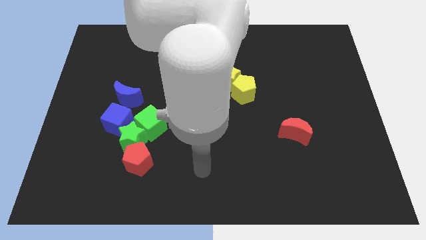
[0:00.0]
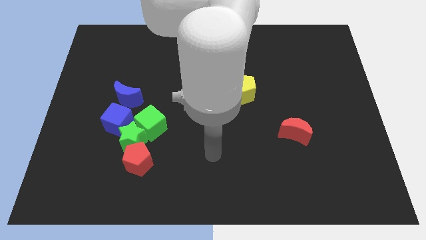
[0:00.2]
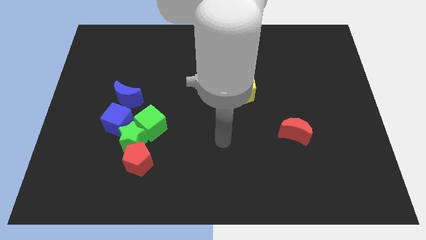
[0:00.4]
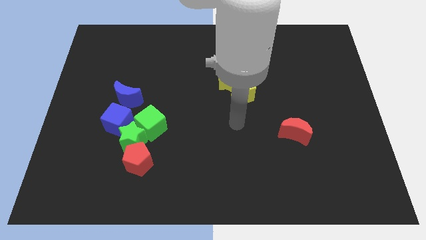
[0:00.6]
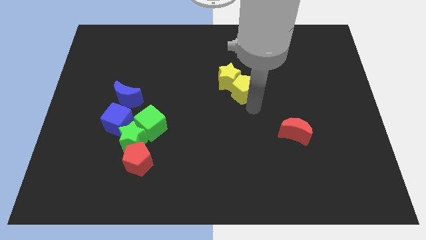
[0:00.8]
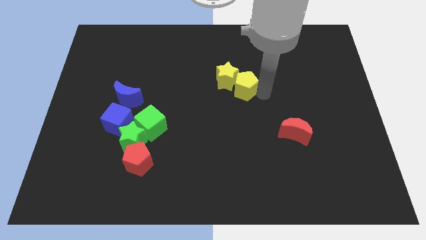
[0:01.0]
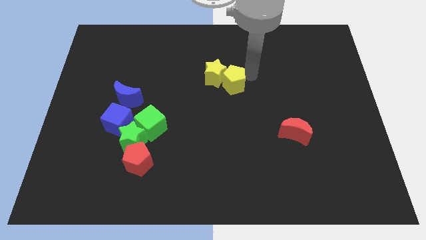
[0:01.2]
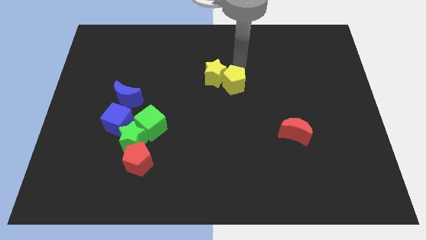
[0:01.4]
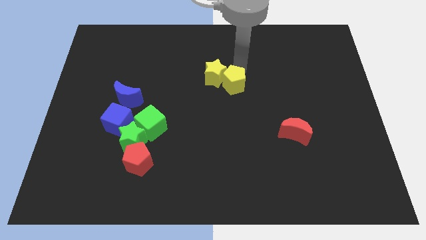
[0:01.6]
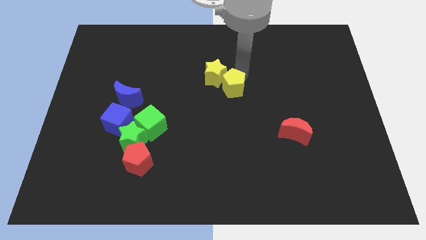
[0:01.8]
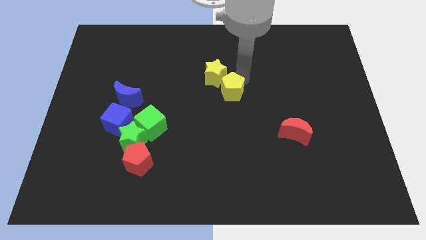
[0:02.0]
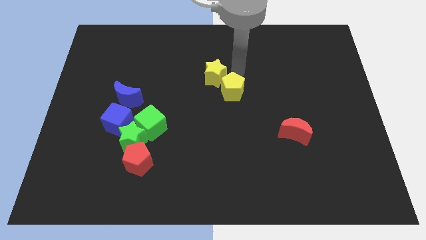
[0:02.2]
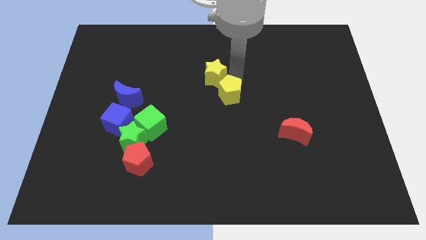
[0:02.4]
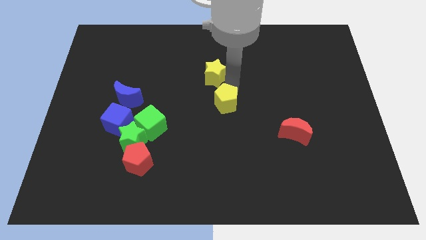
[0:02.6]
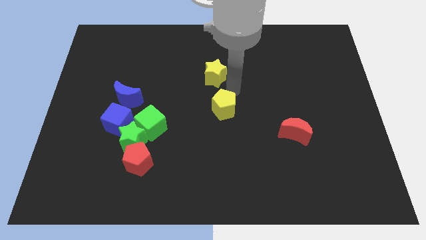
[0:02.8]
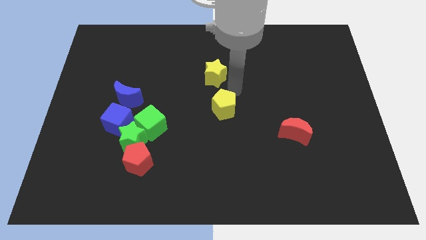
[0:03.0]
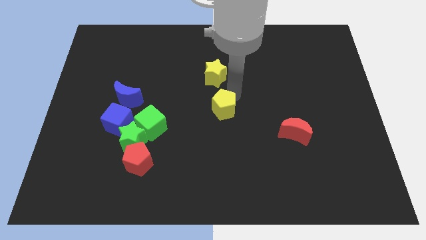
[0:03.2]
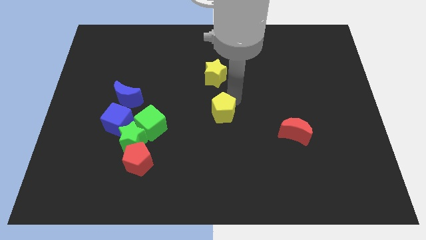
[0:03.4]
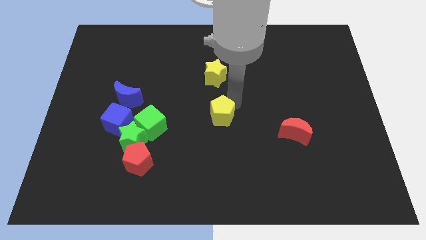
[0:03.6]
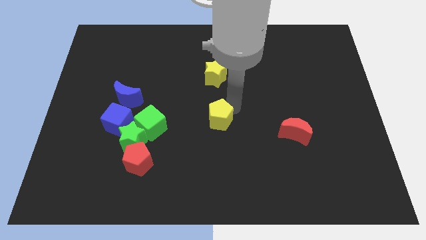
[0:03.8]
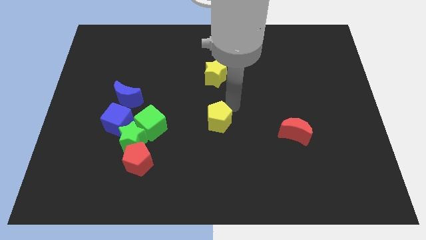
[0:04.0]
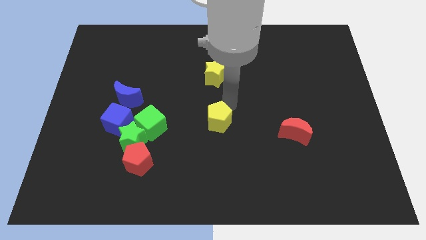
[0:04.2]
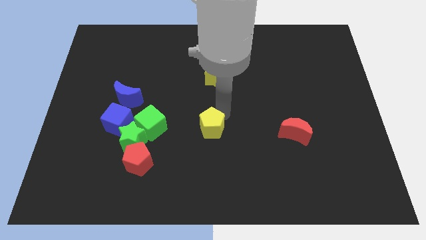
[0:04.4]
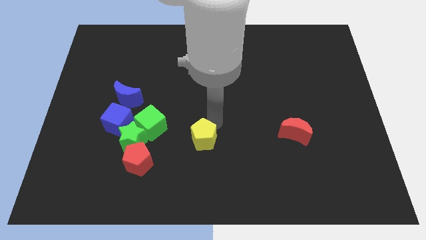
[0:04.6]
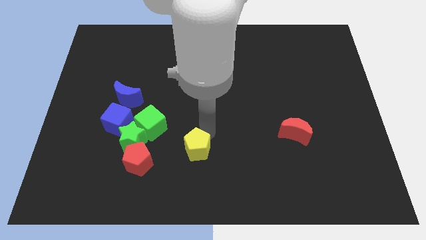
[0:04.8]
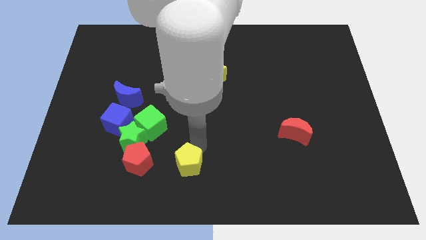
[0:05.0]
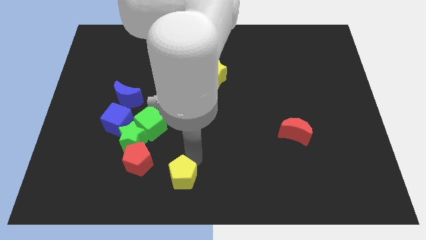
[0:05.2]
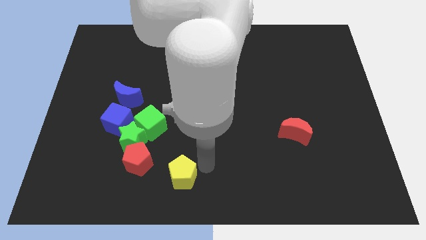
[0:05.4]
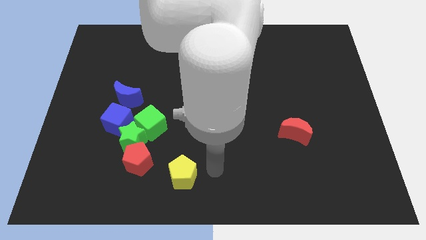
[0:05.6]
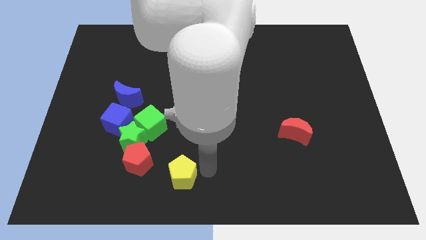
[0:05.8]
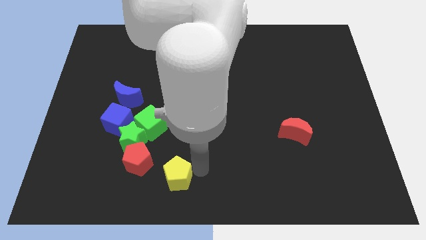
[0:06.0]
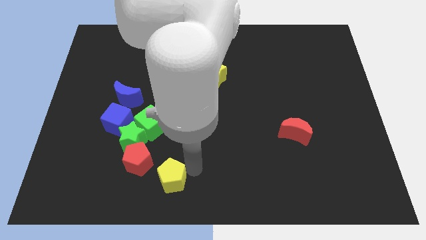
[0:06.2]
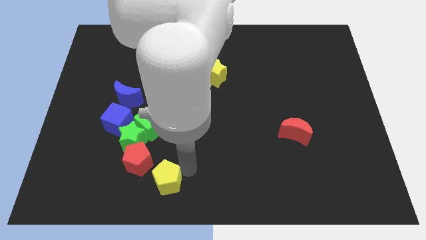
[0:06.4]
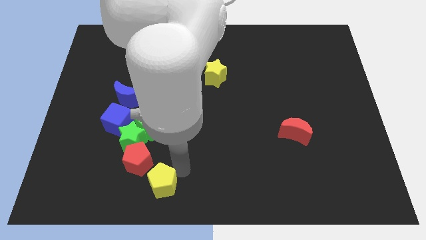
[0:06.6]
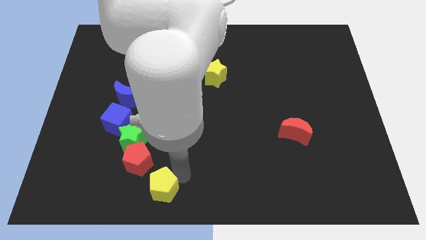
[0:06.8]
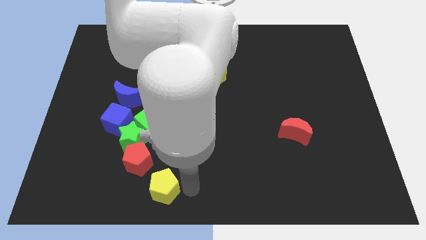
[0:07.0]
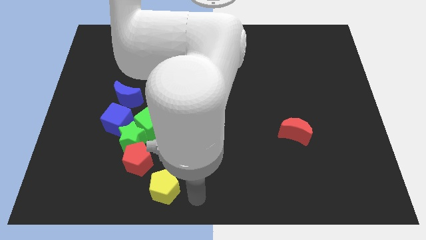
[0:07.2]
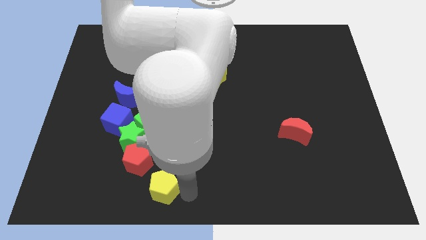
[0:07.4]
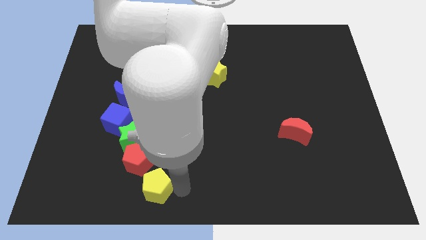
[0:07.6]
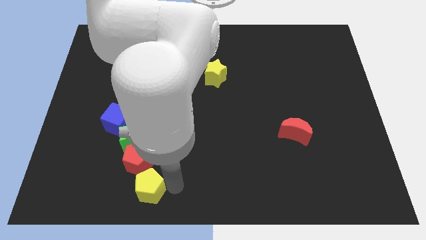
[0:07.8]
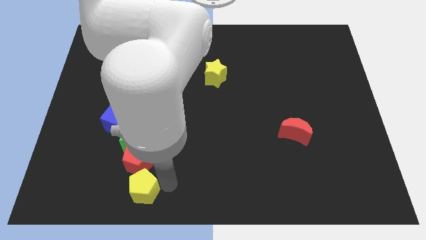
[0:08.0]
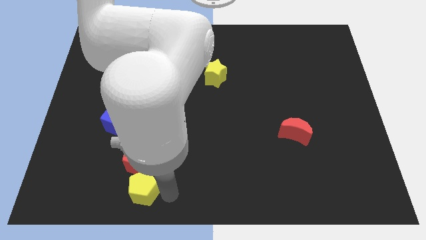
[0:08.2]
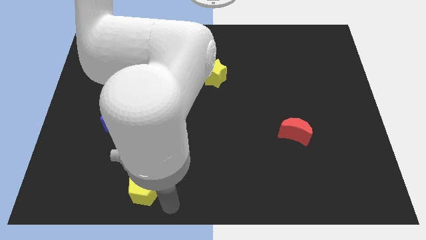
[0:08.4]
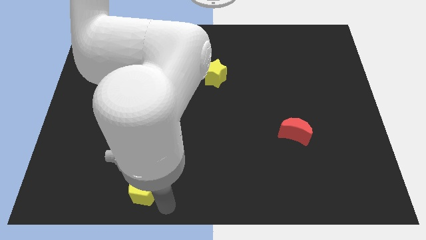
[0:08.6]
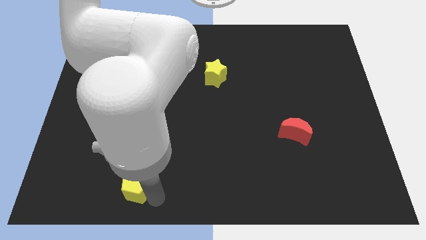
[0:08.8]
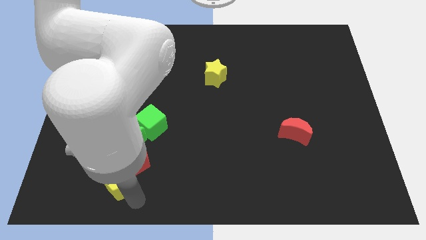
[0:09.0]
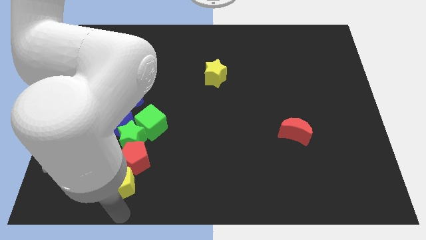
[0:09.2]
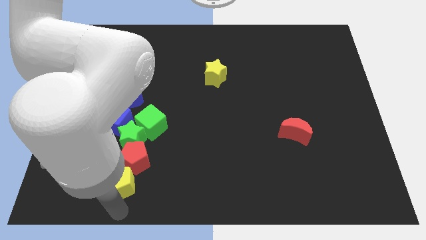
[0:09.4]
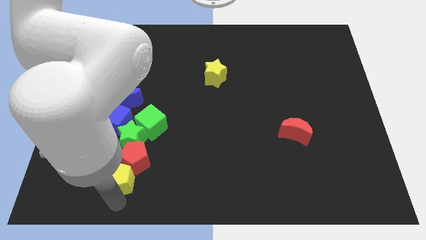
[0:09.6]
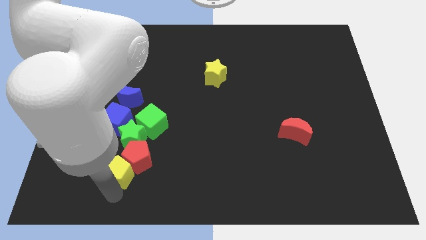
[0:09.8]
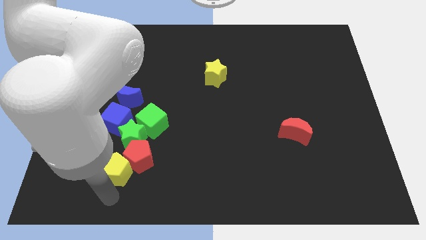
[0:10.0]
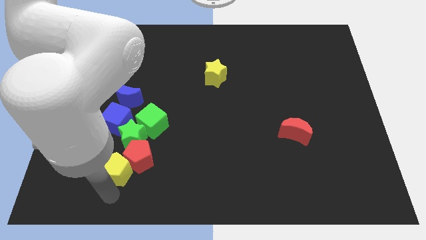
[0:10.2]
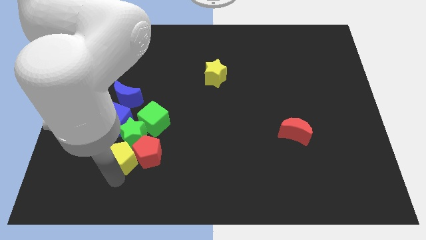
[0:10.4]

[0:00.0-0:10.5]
move the yellow pentagon to the bottom left side of the green cube

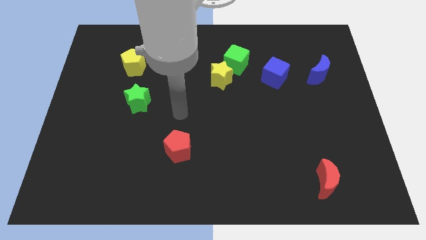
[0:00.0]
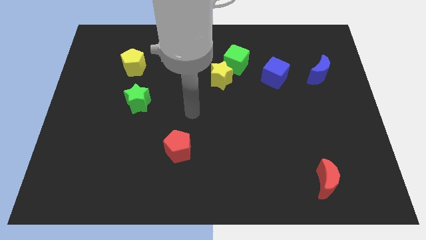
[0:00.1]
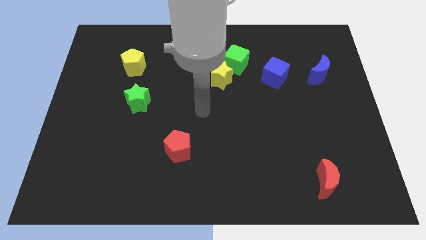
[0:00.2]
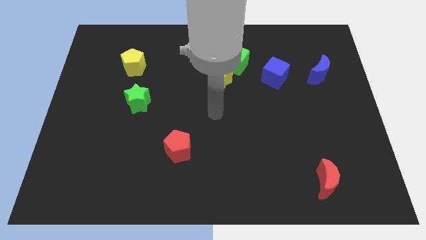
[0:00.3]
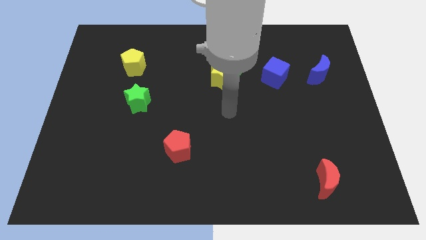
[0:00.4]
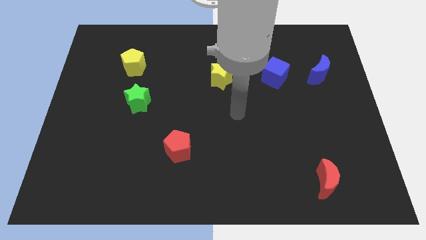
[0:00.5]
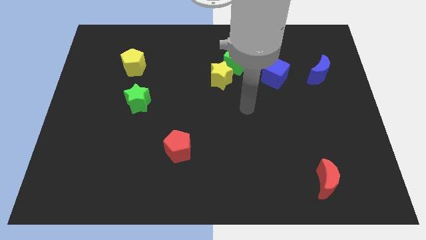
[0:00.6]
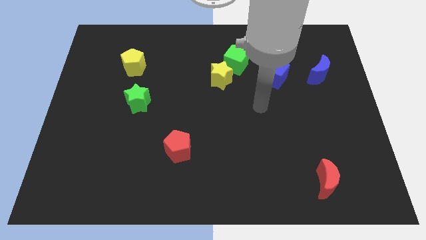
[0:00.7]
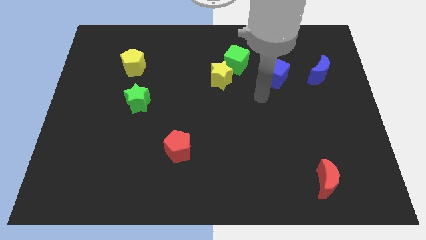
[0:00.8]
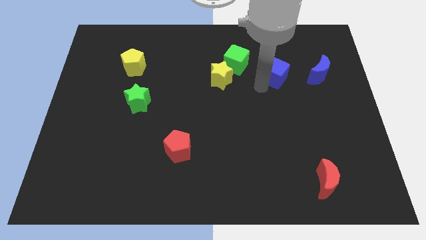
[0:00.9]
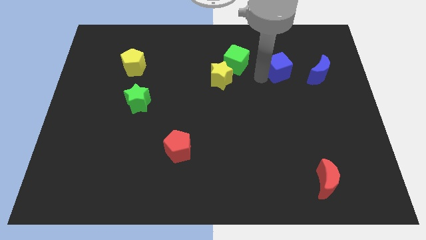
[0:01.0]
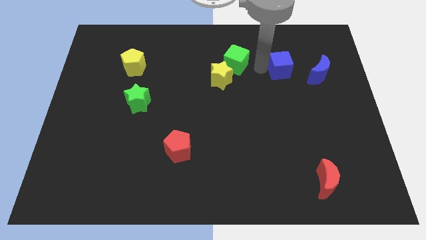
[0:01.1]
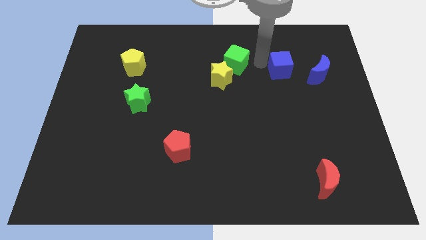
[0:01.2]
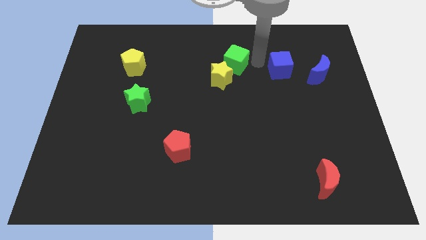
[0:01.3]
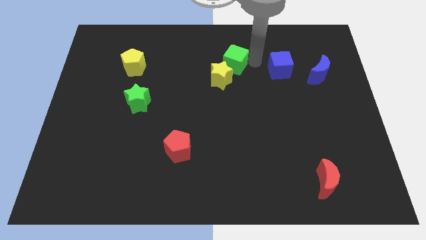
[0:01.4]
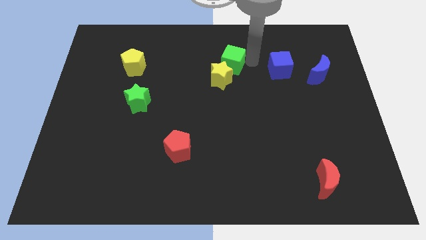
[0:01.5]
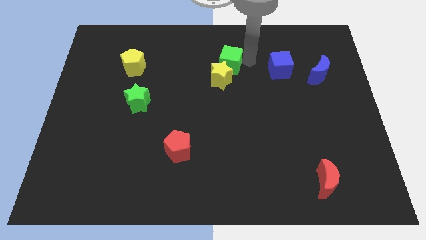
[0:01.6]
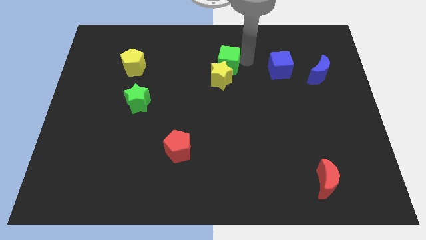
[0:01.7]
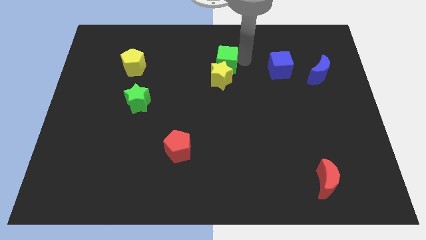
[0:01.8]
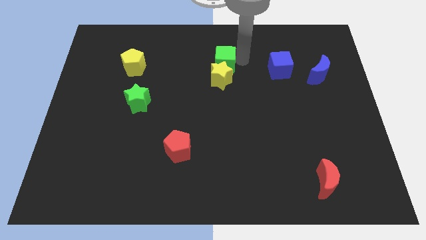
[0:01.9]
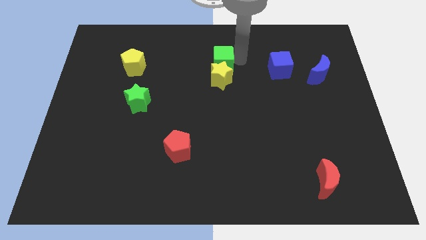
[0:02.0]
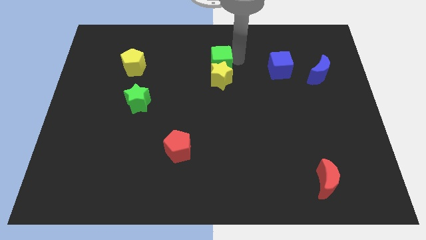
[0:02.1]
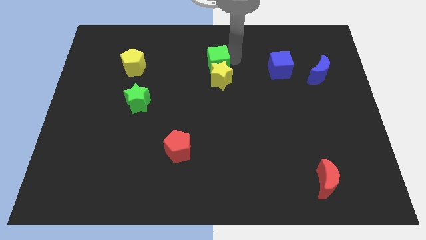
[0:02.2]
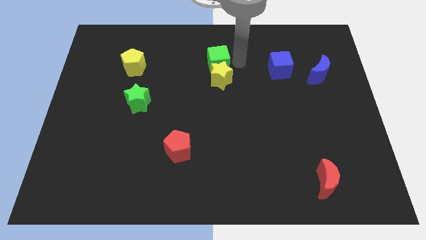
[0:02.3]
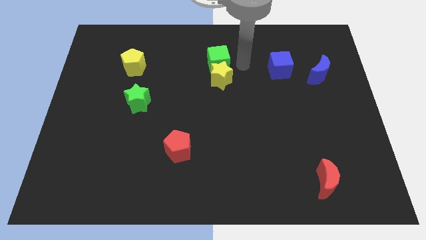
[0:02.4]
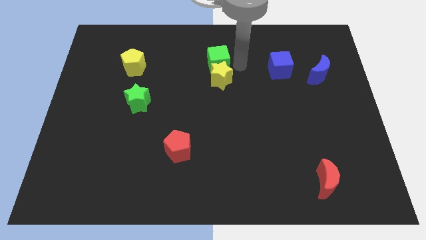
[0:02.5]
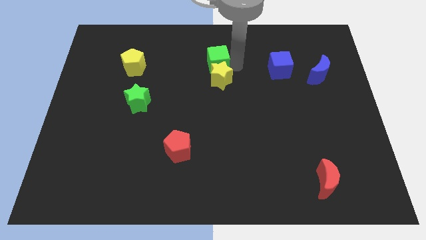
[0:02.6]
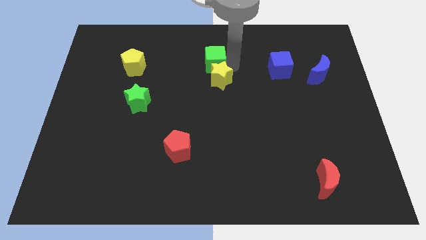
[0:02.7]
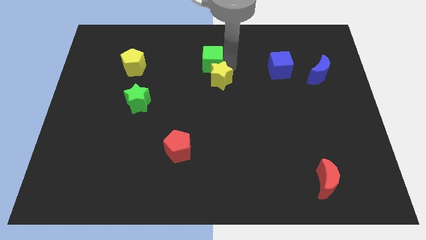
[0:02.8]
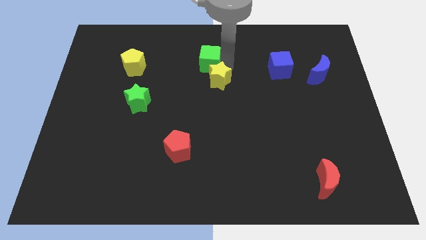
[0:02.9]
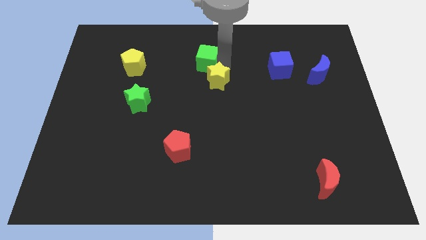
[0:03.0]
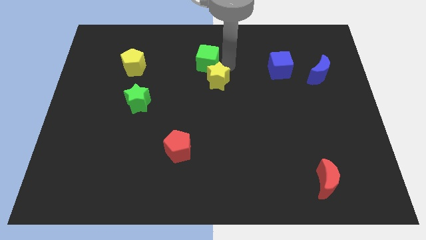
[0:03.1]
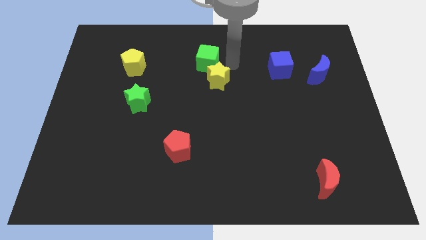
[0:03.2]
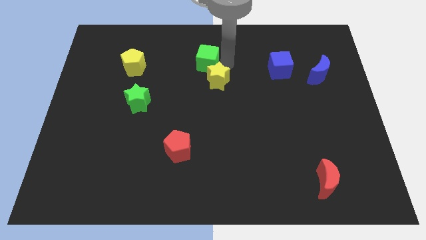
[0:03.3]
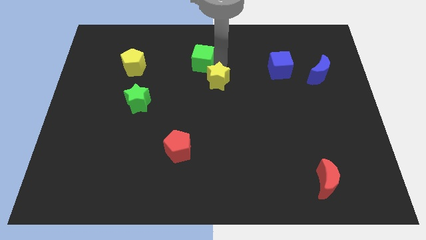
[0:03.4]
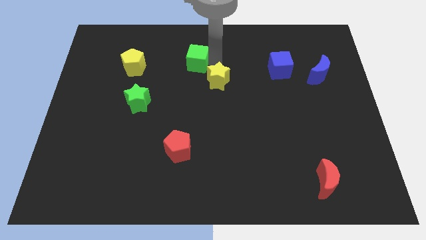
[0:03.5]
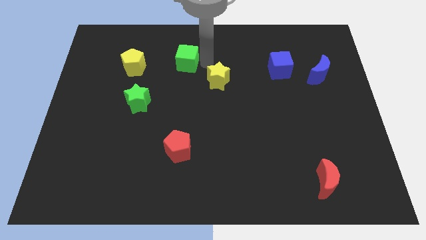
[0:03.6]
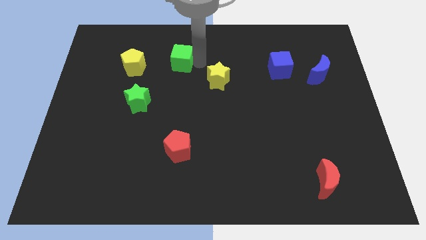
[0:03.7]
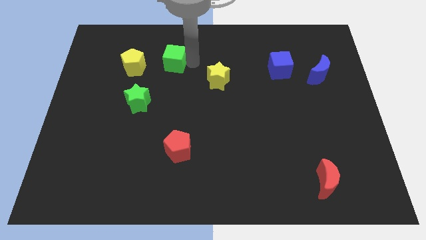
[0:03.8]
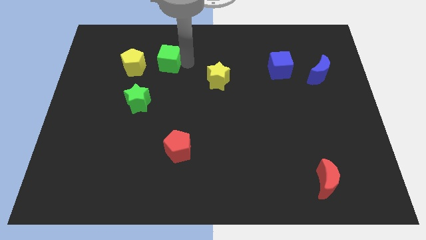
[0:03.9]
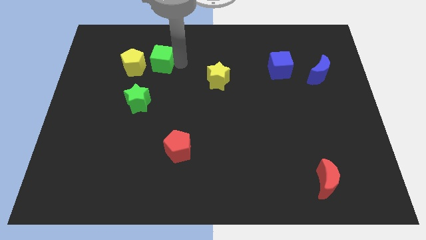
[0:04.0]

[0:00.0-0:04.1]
move the green cube above the green star
